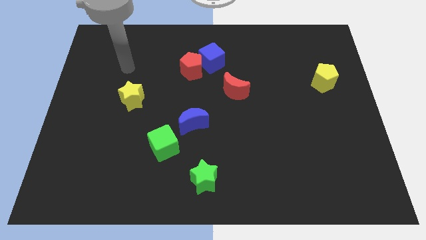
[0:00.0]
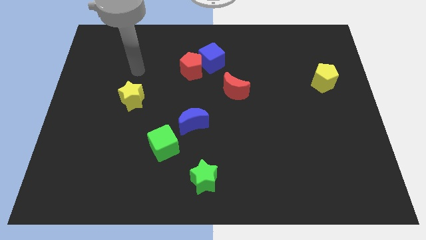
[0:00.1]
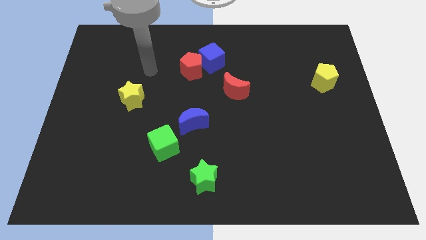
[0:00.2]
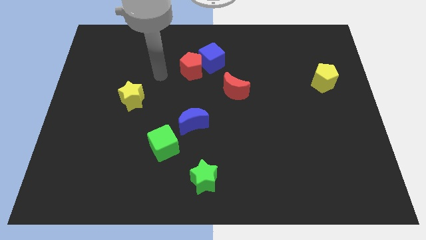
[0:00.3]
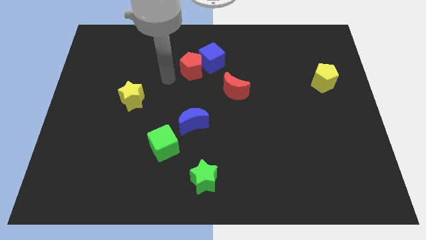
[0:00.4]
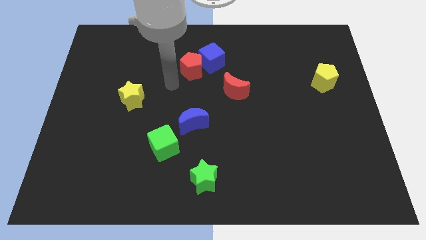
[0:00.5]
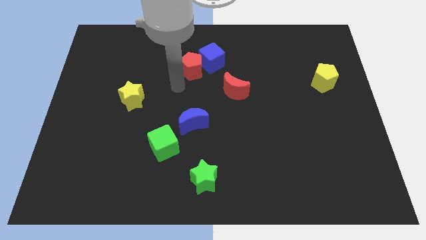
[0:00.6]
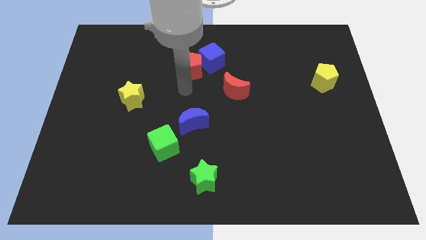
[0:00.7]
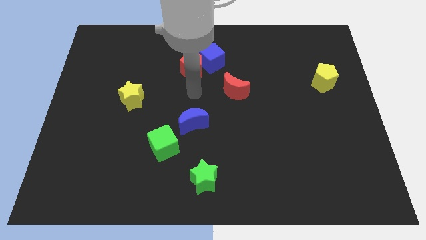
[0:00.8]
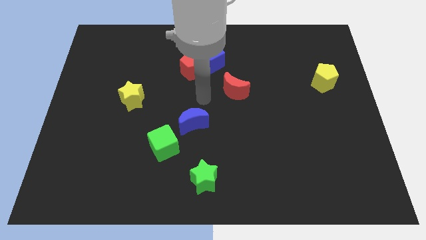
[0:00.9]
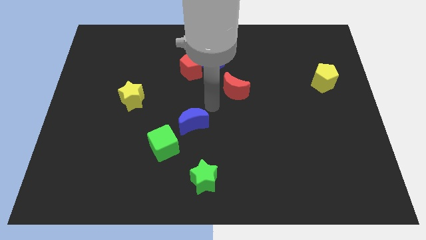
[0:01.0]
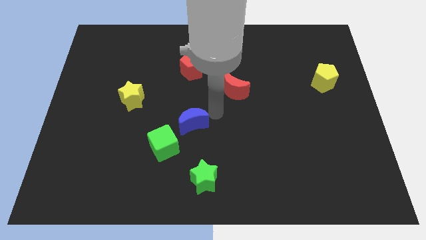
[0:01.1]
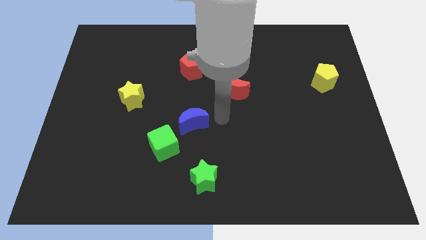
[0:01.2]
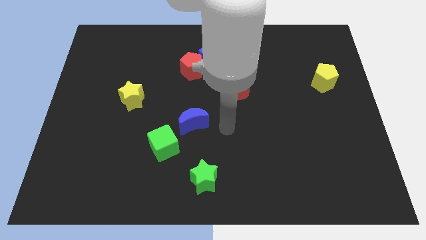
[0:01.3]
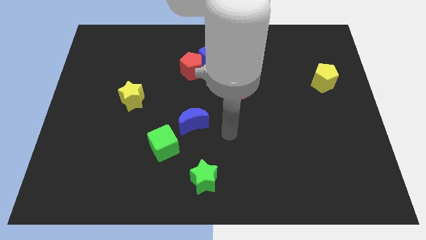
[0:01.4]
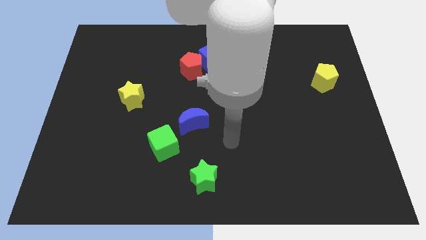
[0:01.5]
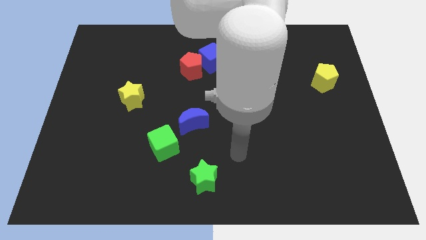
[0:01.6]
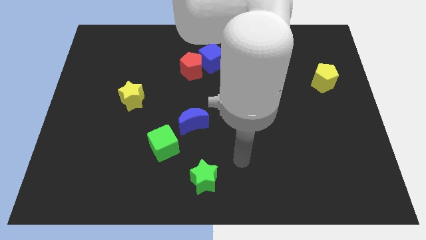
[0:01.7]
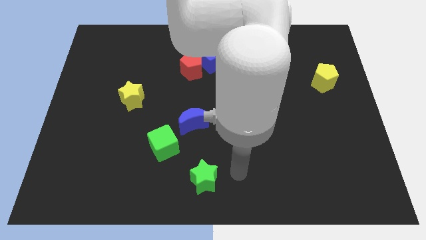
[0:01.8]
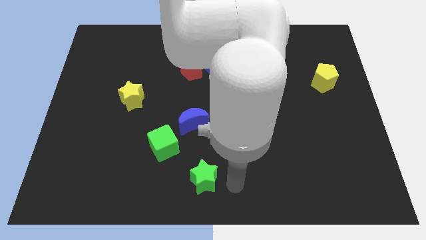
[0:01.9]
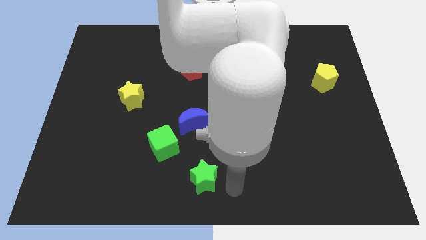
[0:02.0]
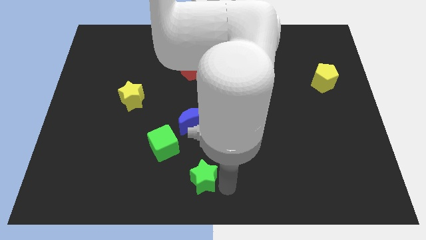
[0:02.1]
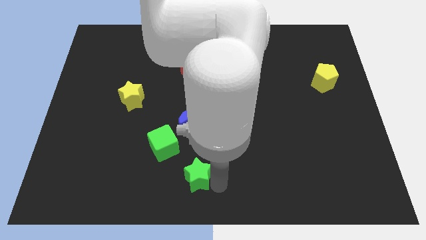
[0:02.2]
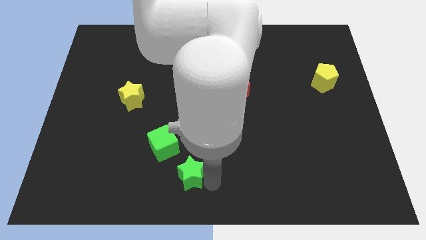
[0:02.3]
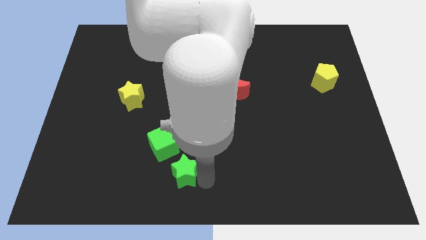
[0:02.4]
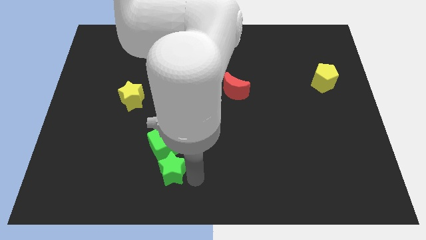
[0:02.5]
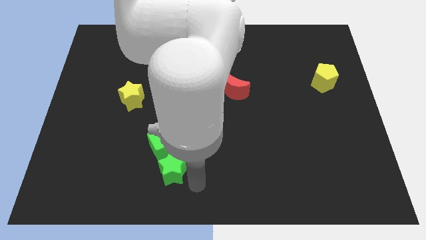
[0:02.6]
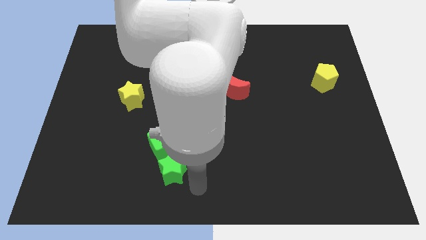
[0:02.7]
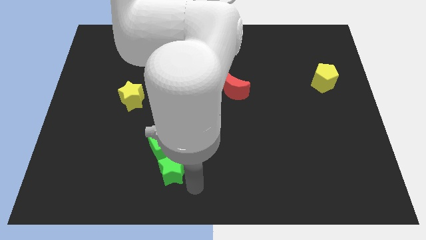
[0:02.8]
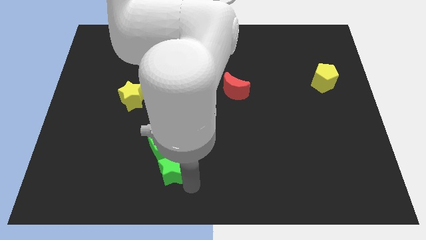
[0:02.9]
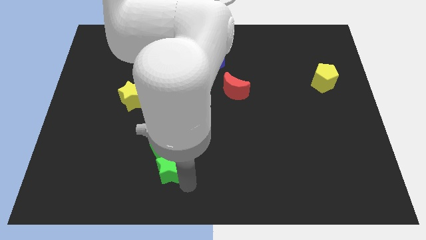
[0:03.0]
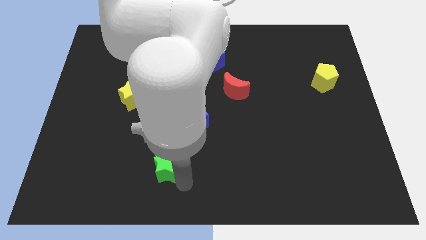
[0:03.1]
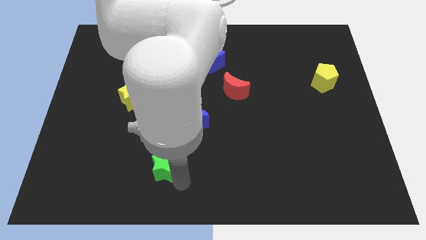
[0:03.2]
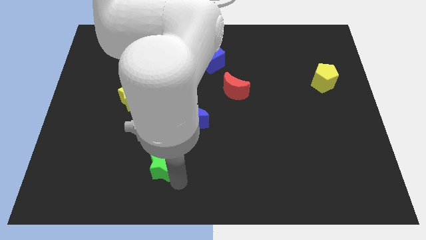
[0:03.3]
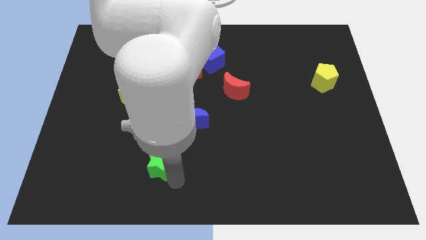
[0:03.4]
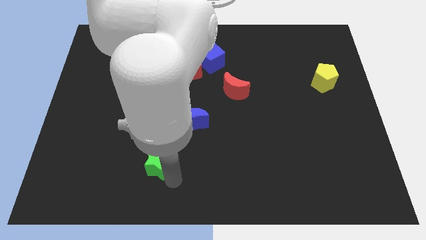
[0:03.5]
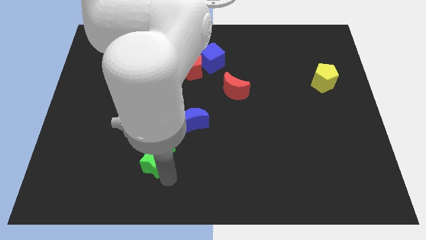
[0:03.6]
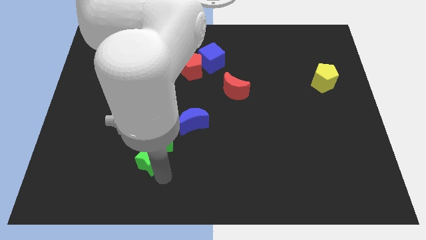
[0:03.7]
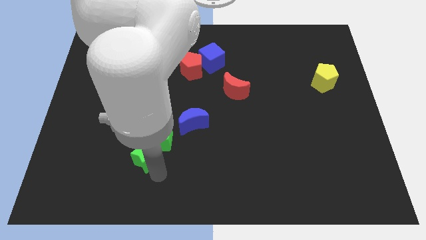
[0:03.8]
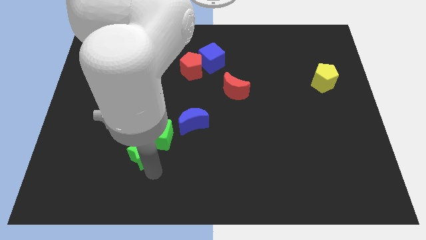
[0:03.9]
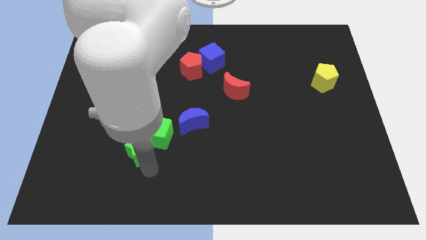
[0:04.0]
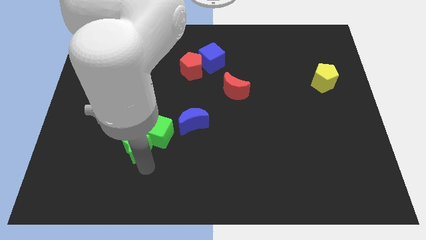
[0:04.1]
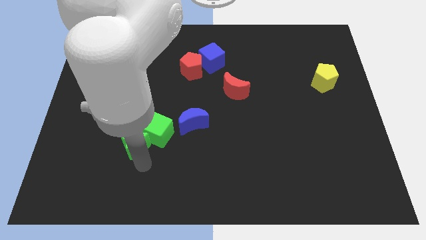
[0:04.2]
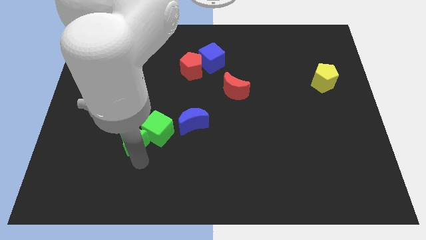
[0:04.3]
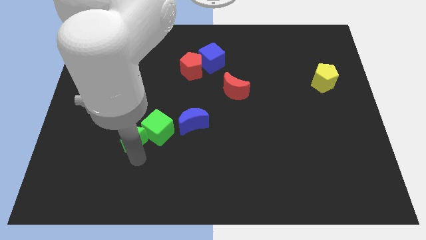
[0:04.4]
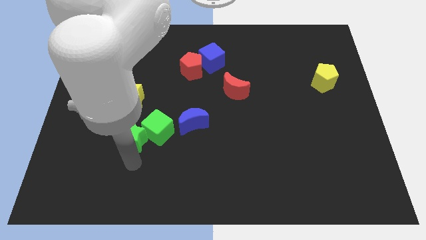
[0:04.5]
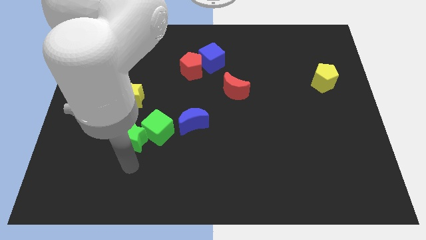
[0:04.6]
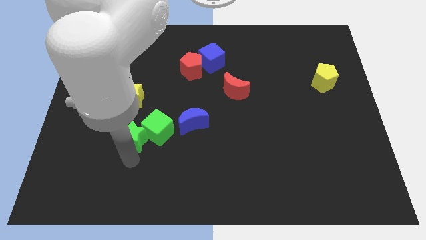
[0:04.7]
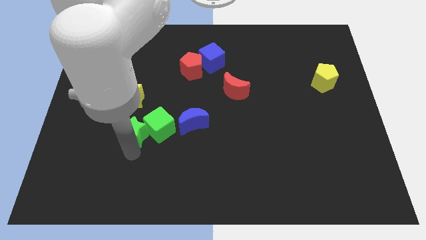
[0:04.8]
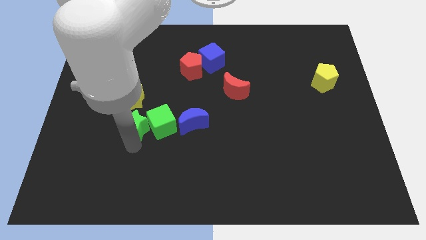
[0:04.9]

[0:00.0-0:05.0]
push the green star to the top left of the green cube

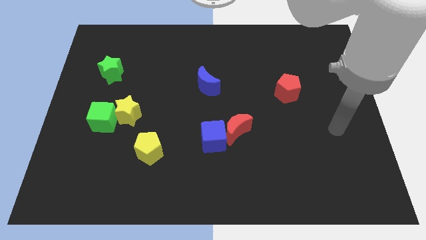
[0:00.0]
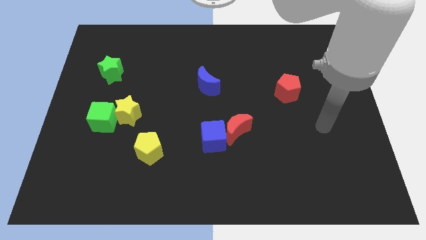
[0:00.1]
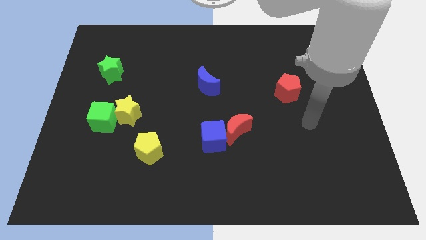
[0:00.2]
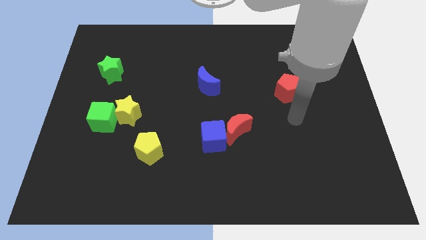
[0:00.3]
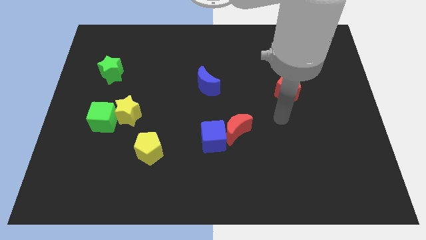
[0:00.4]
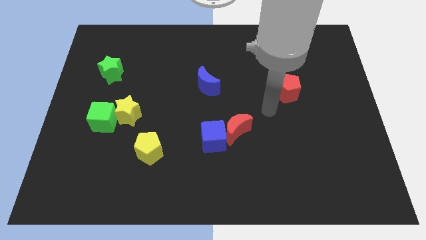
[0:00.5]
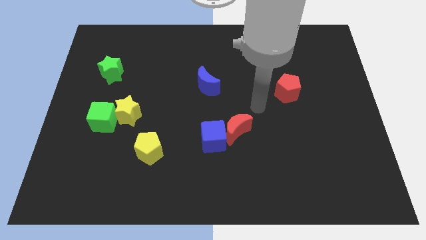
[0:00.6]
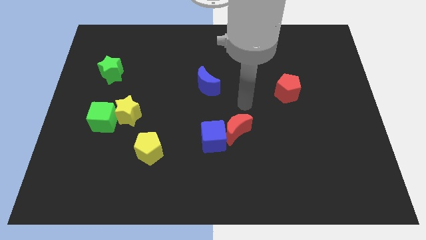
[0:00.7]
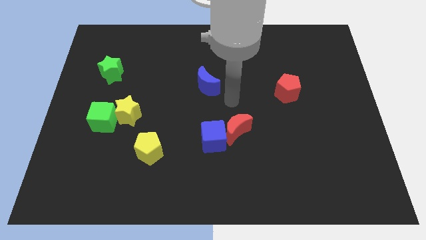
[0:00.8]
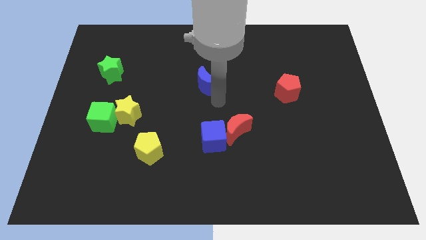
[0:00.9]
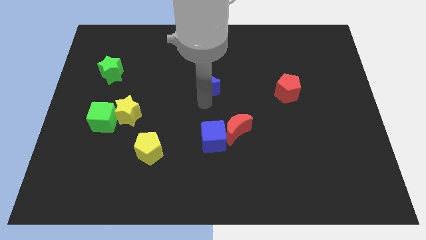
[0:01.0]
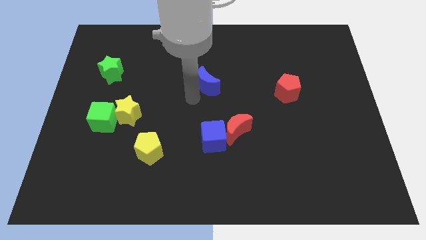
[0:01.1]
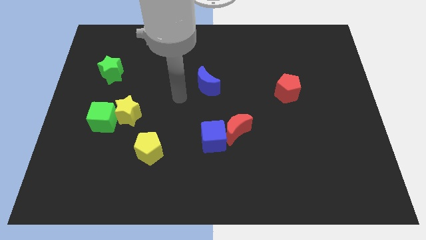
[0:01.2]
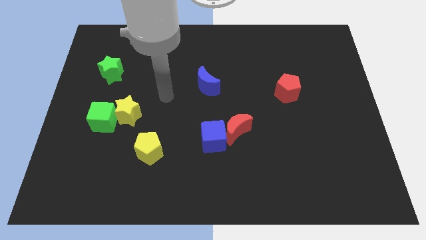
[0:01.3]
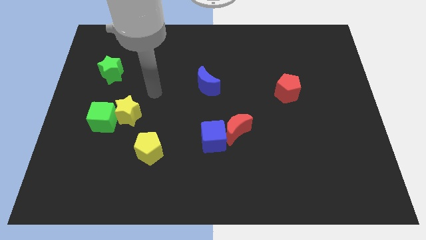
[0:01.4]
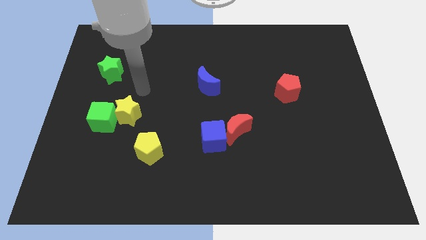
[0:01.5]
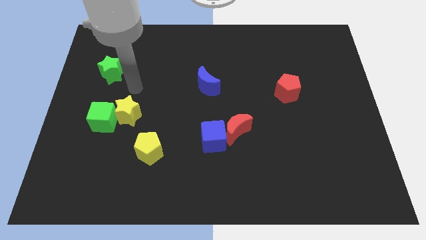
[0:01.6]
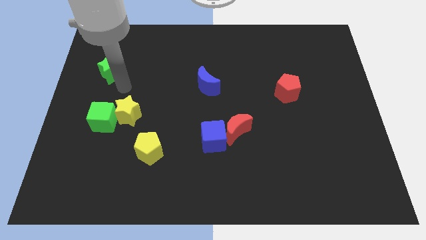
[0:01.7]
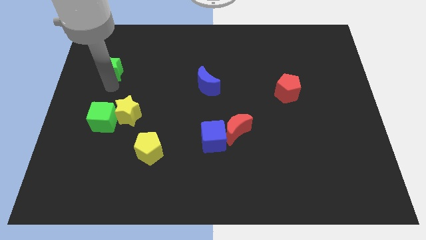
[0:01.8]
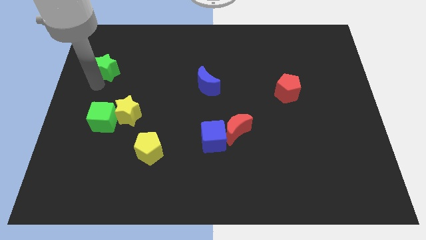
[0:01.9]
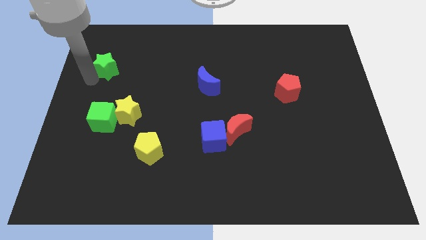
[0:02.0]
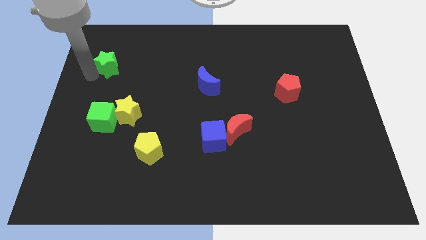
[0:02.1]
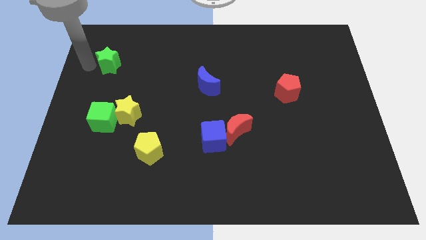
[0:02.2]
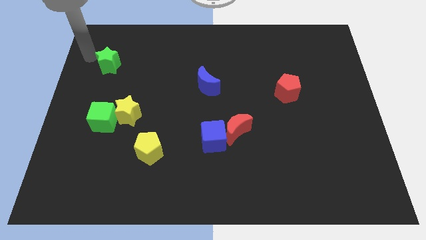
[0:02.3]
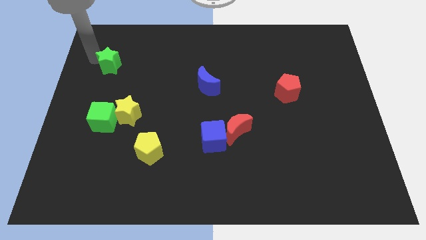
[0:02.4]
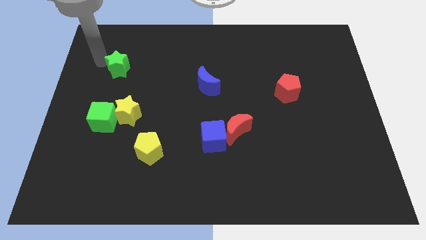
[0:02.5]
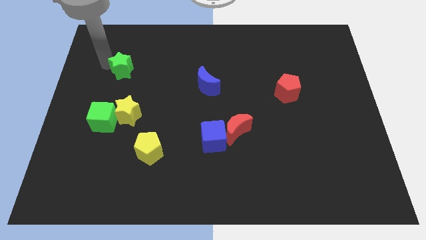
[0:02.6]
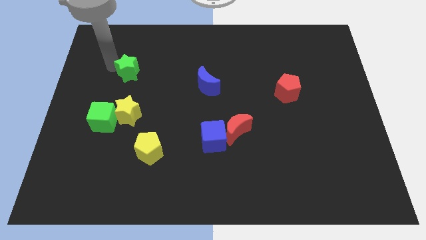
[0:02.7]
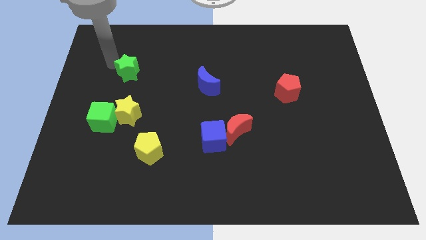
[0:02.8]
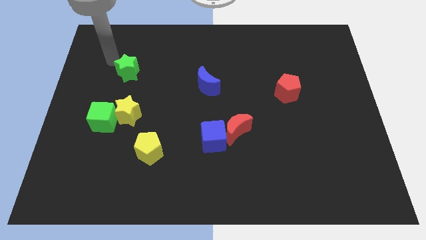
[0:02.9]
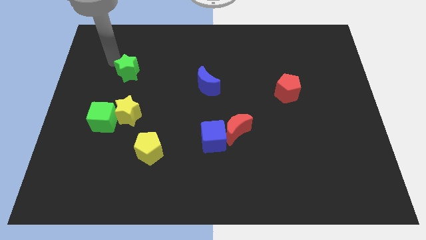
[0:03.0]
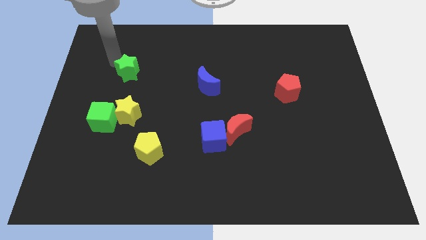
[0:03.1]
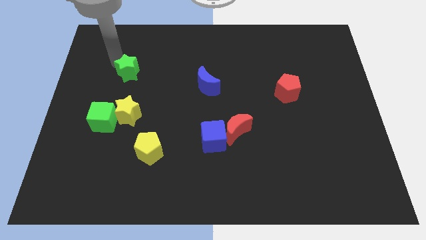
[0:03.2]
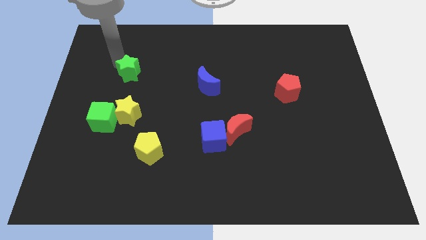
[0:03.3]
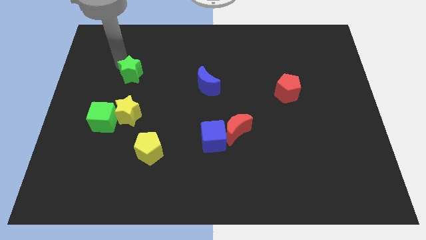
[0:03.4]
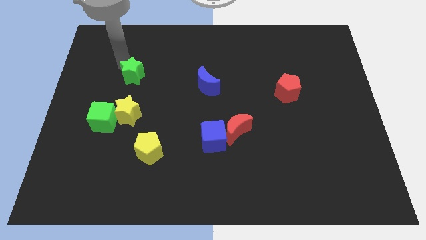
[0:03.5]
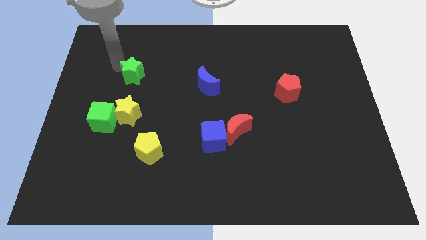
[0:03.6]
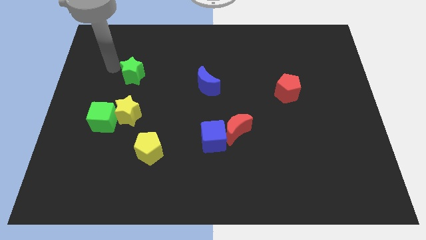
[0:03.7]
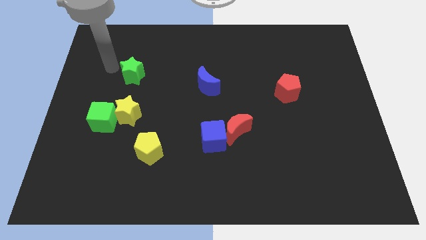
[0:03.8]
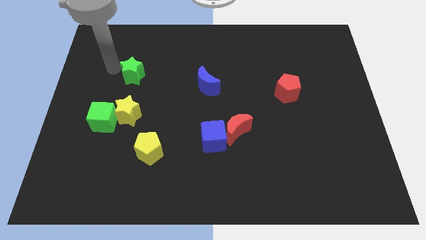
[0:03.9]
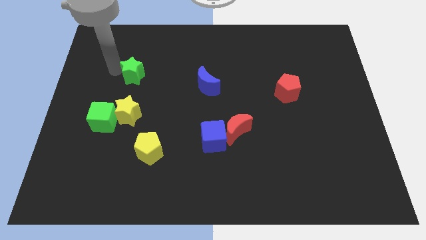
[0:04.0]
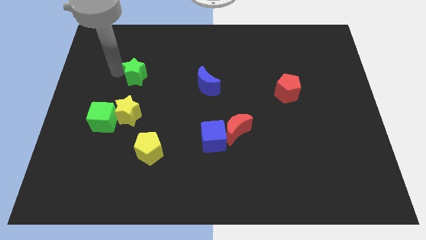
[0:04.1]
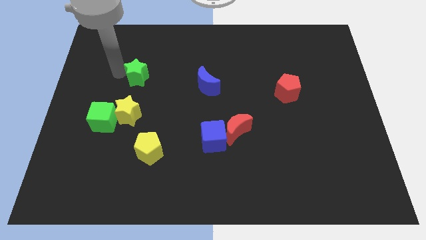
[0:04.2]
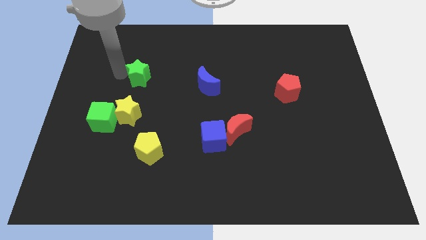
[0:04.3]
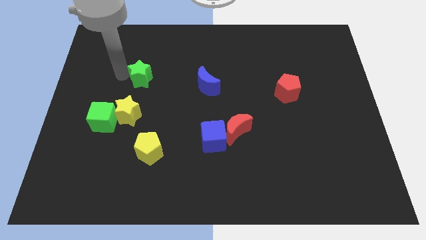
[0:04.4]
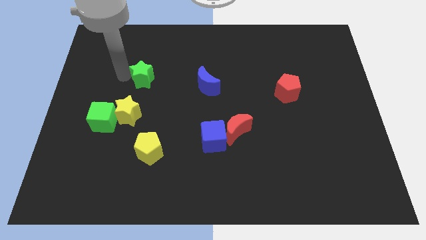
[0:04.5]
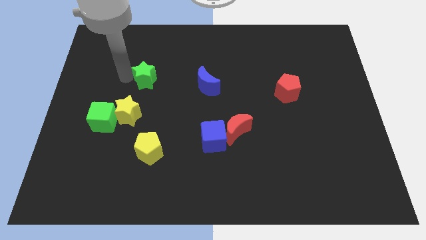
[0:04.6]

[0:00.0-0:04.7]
slide the green star to the left side of the blue moon
